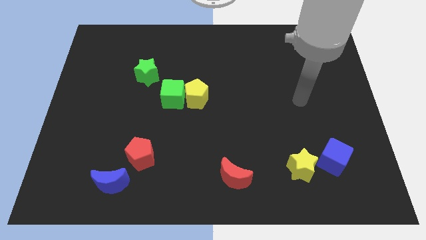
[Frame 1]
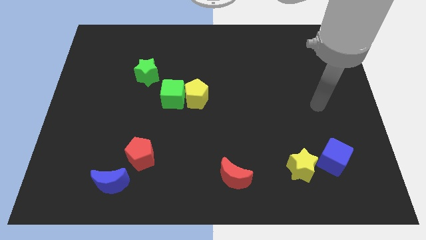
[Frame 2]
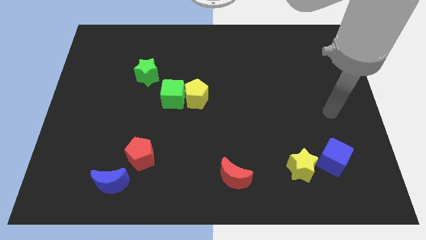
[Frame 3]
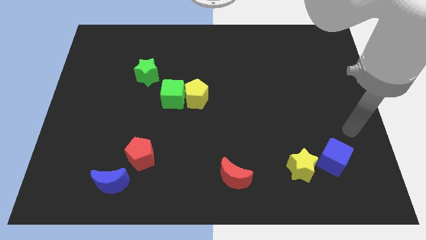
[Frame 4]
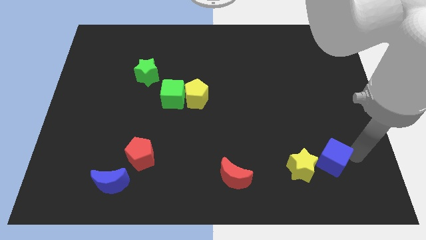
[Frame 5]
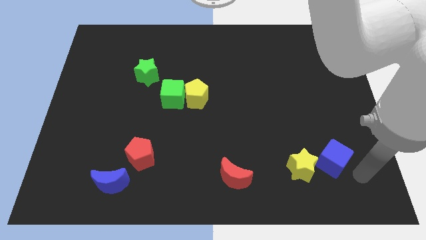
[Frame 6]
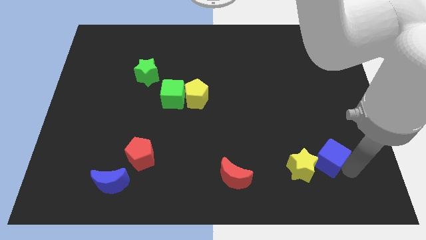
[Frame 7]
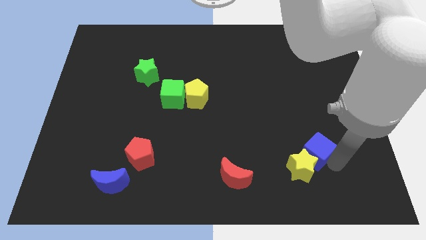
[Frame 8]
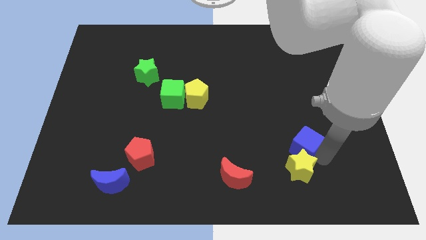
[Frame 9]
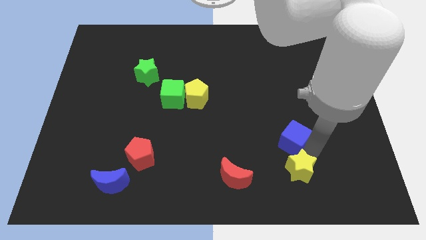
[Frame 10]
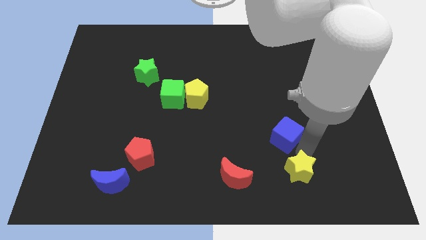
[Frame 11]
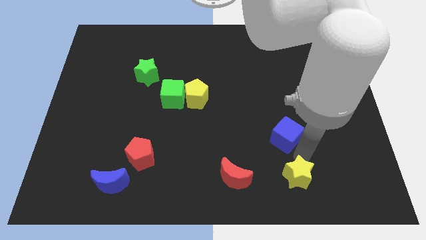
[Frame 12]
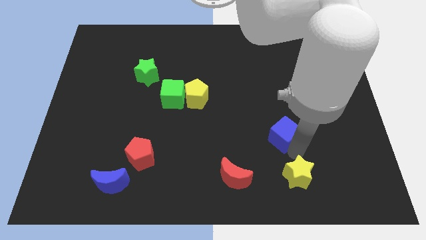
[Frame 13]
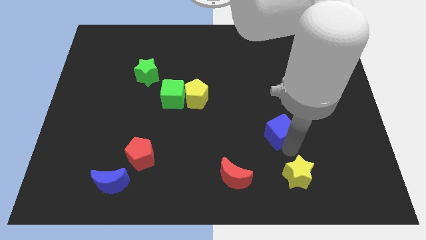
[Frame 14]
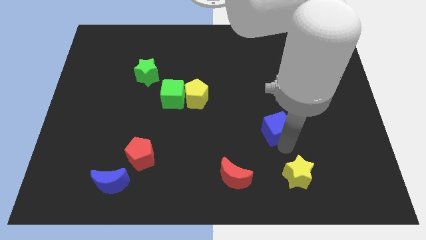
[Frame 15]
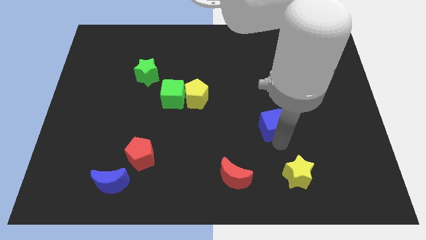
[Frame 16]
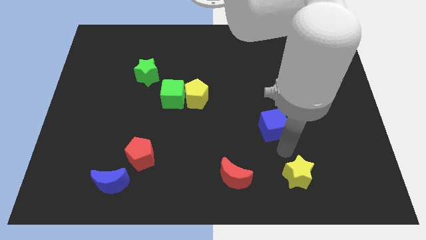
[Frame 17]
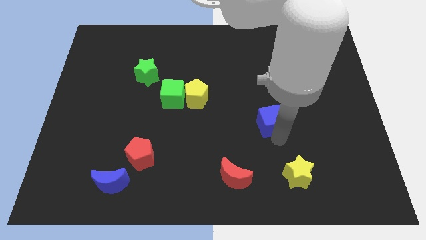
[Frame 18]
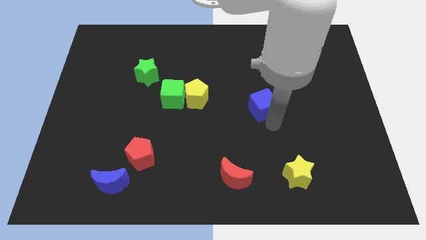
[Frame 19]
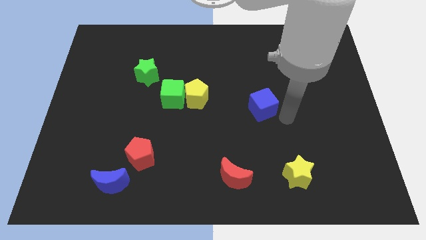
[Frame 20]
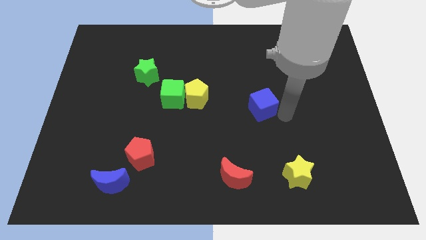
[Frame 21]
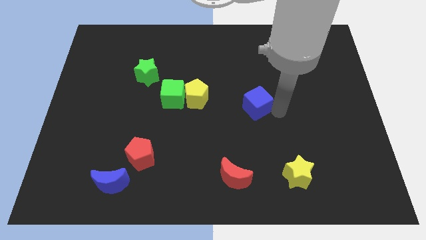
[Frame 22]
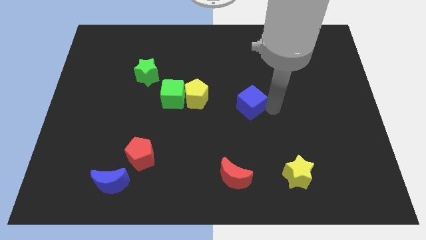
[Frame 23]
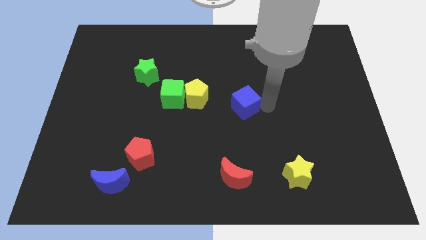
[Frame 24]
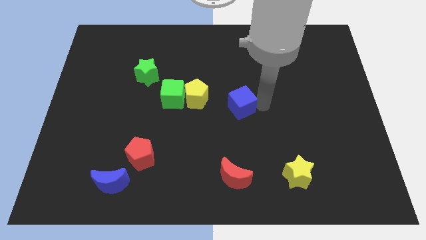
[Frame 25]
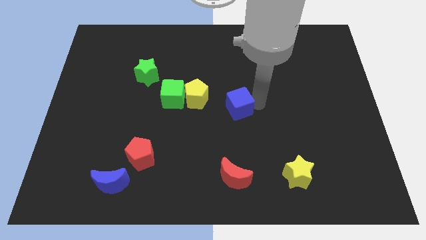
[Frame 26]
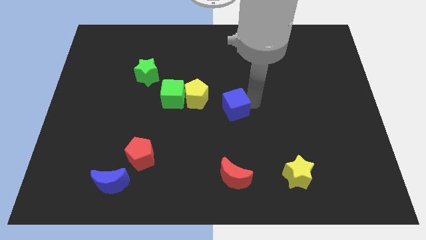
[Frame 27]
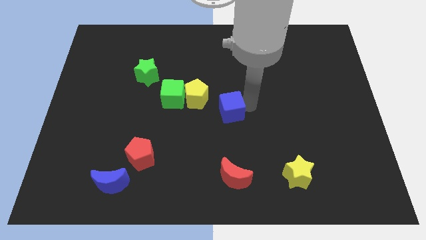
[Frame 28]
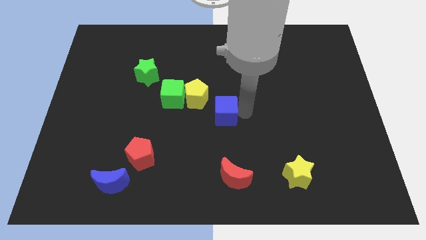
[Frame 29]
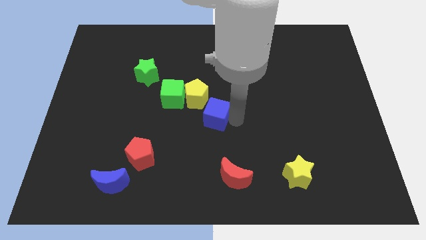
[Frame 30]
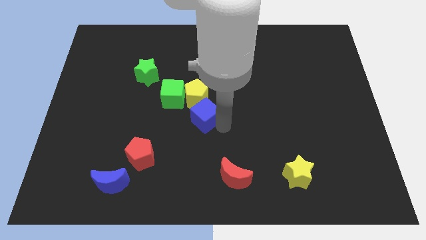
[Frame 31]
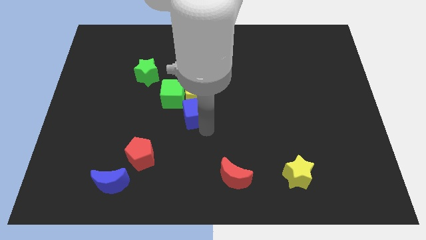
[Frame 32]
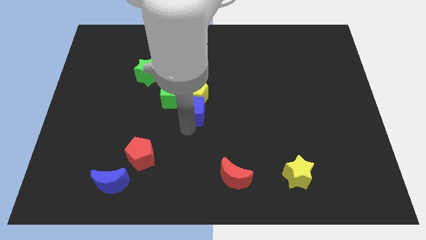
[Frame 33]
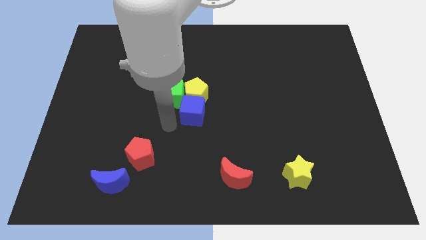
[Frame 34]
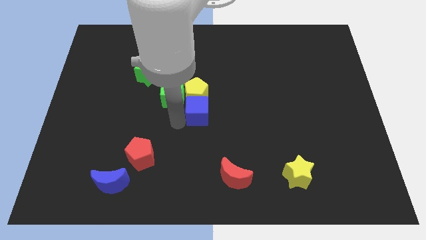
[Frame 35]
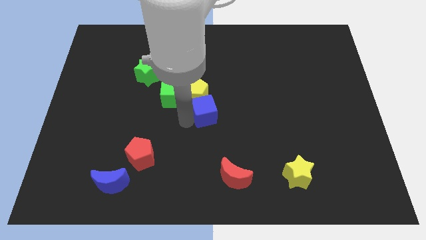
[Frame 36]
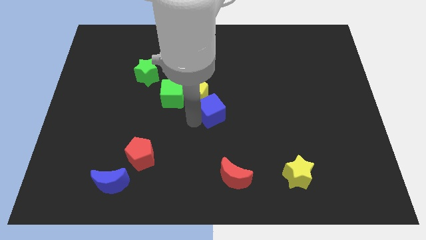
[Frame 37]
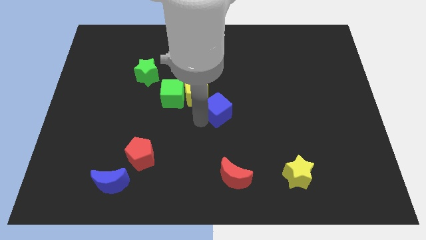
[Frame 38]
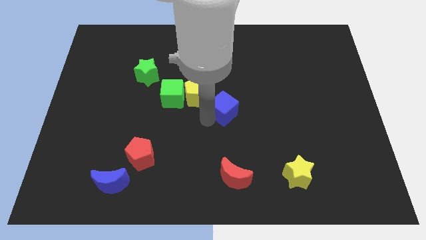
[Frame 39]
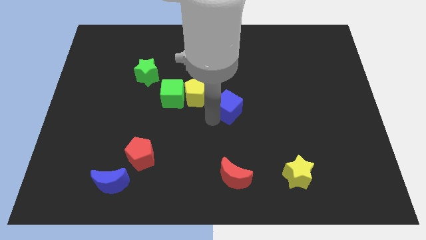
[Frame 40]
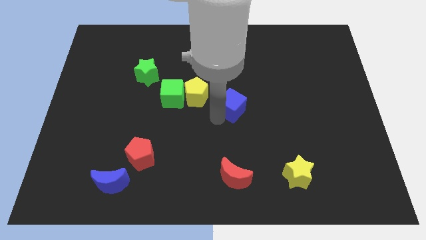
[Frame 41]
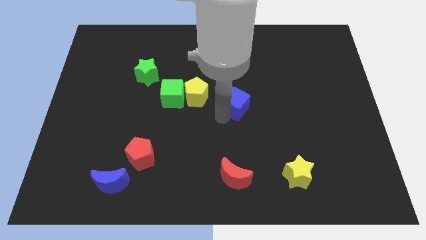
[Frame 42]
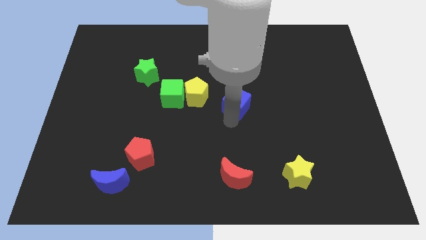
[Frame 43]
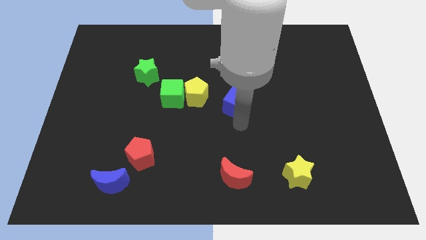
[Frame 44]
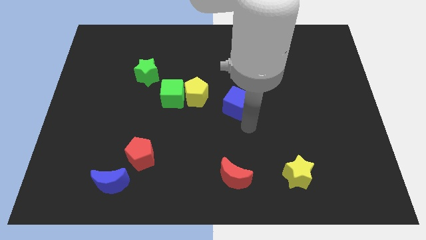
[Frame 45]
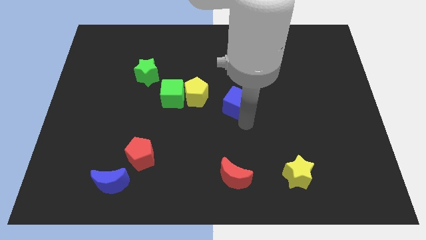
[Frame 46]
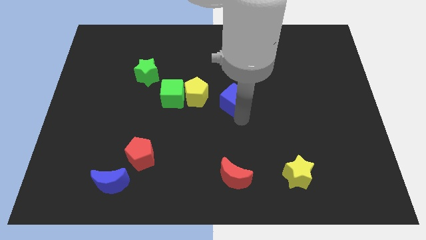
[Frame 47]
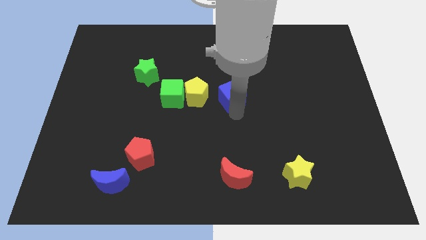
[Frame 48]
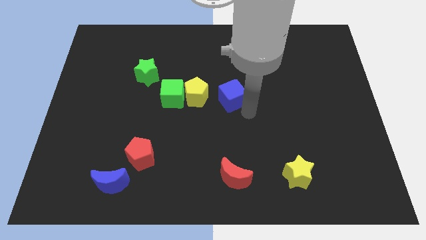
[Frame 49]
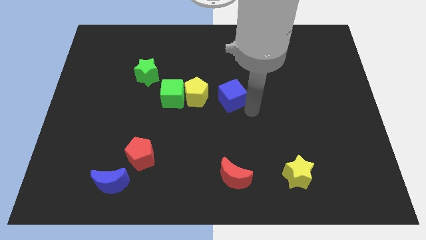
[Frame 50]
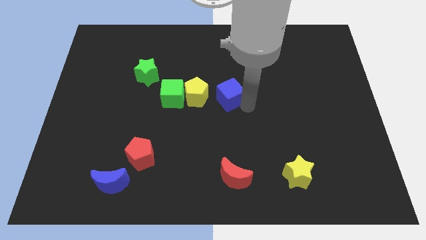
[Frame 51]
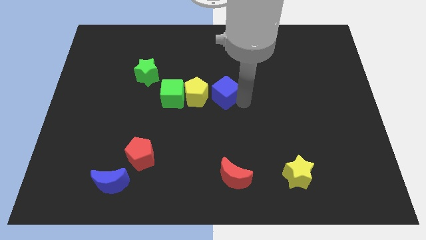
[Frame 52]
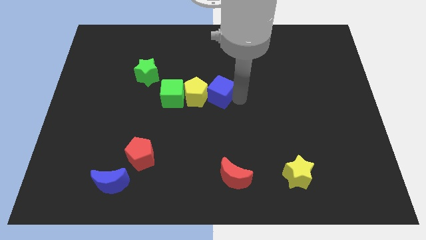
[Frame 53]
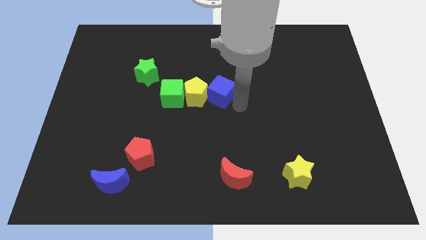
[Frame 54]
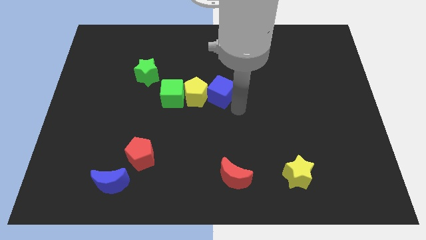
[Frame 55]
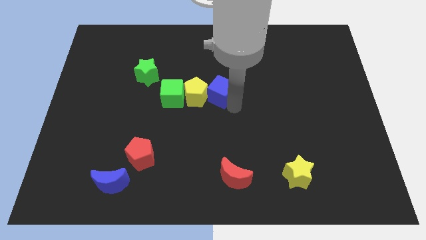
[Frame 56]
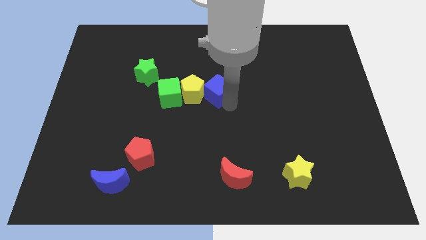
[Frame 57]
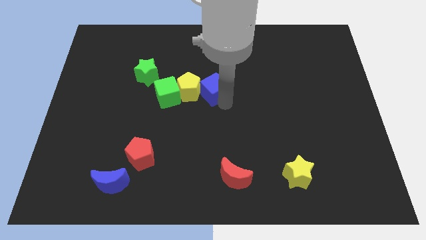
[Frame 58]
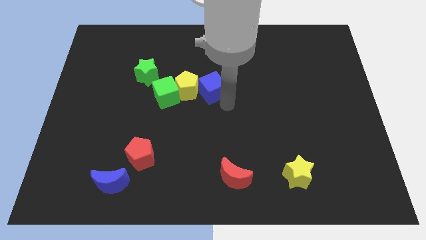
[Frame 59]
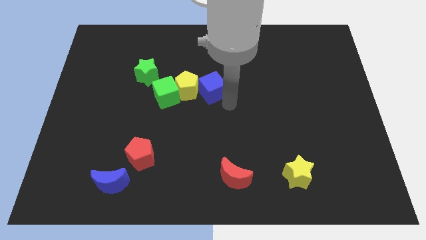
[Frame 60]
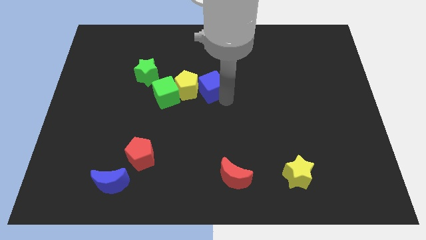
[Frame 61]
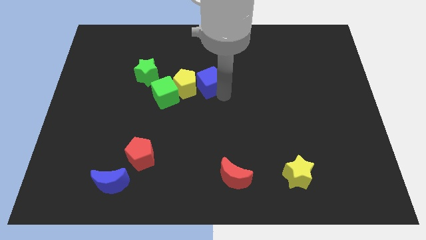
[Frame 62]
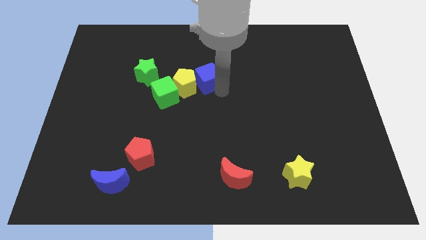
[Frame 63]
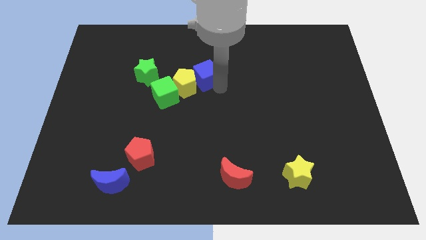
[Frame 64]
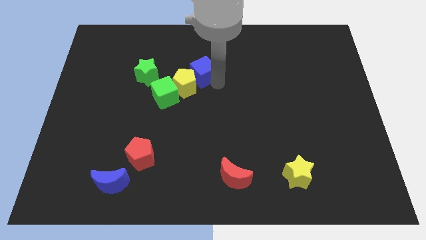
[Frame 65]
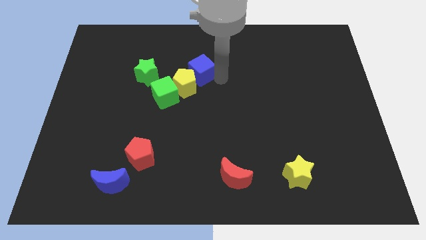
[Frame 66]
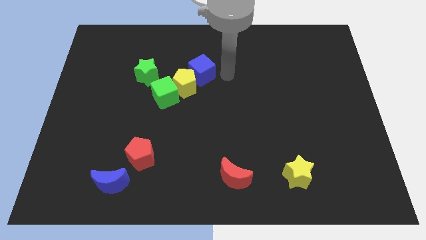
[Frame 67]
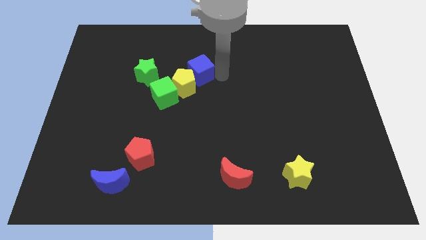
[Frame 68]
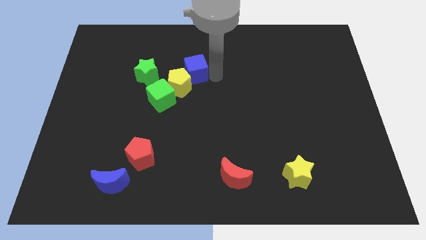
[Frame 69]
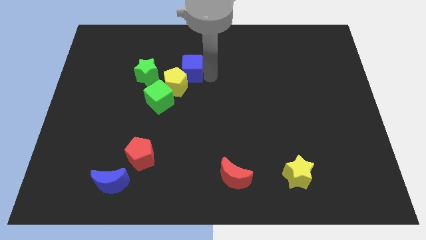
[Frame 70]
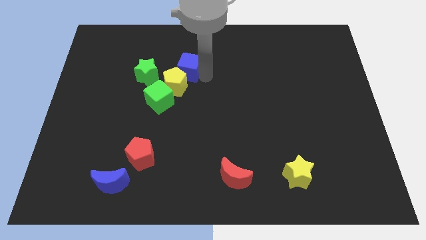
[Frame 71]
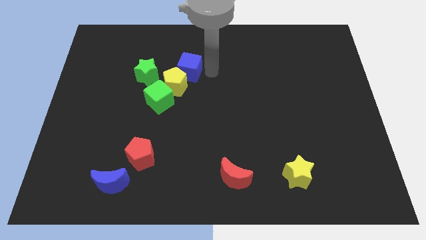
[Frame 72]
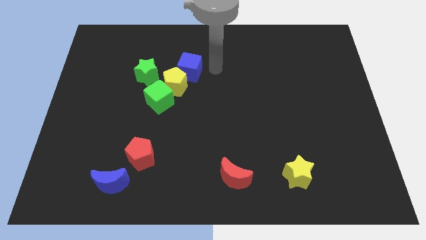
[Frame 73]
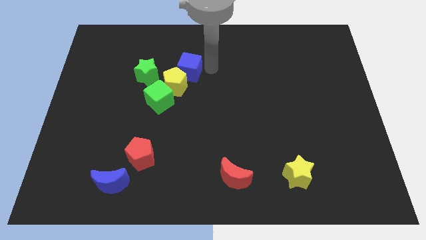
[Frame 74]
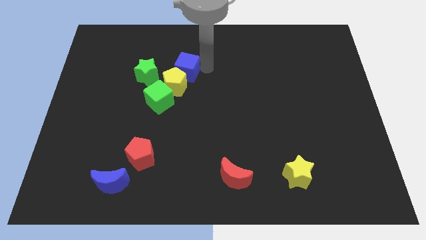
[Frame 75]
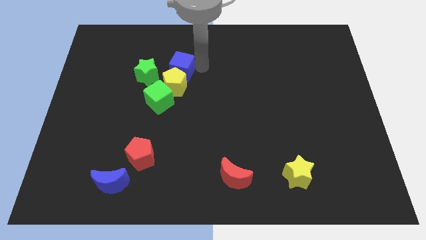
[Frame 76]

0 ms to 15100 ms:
move the blue cube to the top right side of the green star
